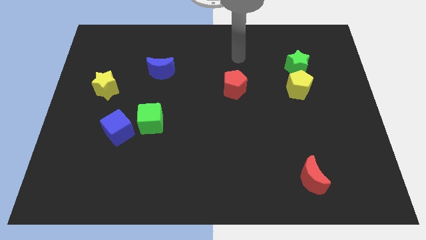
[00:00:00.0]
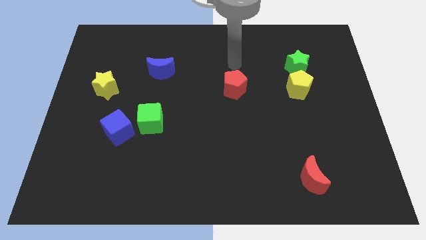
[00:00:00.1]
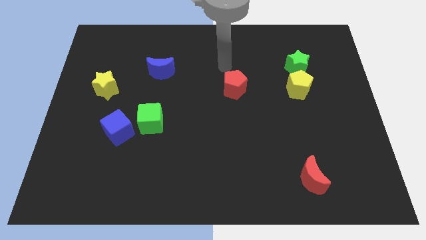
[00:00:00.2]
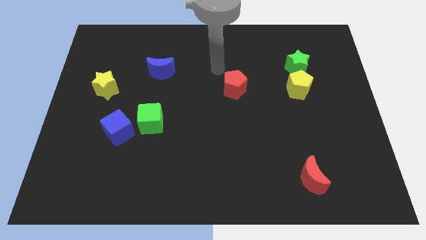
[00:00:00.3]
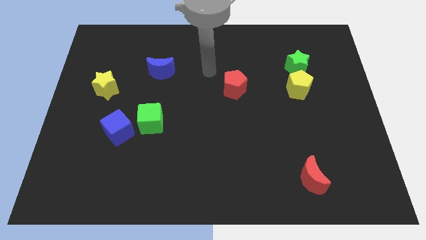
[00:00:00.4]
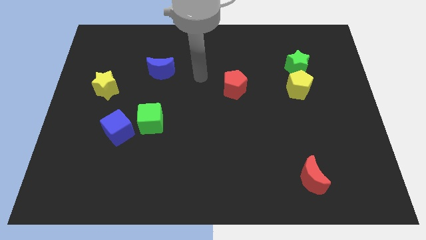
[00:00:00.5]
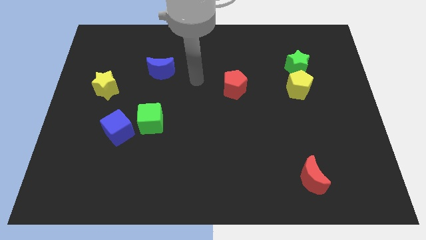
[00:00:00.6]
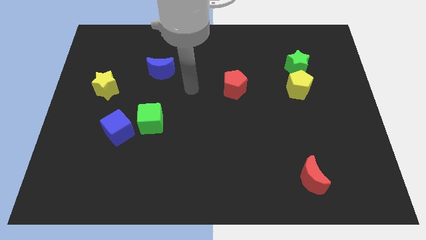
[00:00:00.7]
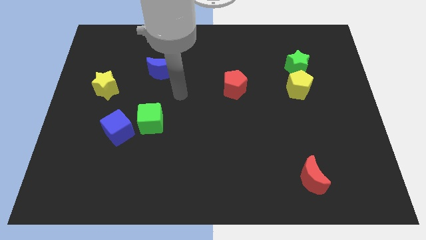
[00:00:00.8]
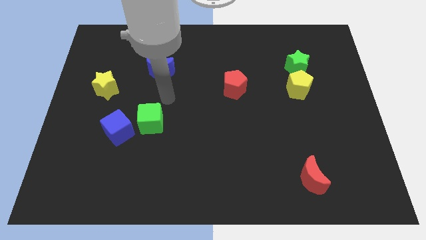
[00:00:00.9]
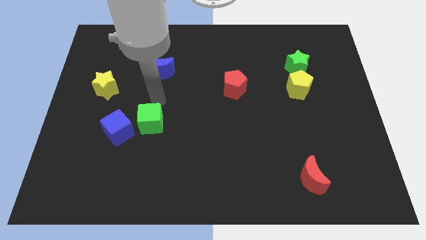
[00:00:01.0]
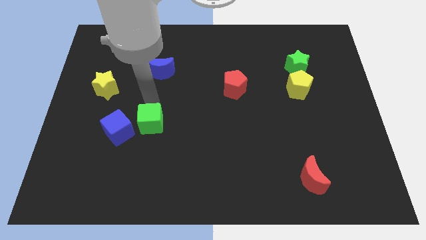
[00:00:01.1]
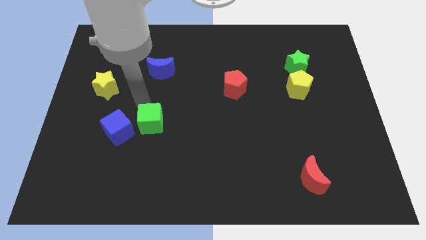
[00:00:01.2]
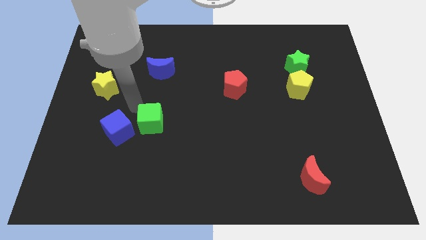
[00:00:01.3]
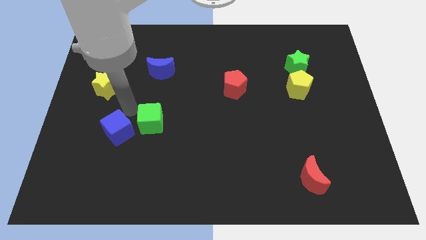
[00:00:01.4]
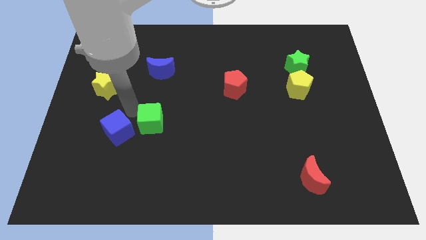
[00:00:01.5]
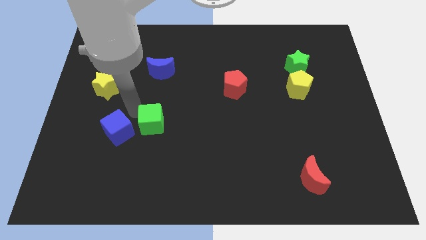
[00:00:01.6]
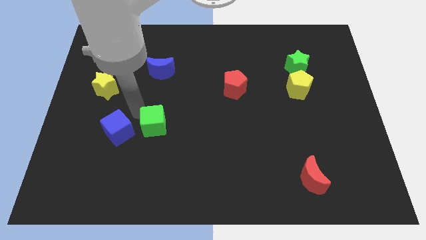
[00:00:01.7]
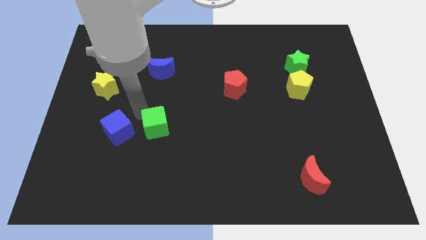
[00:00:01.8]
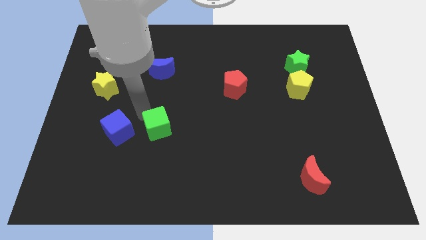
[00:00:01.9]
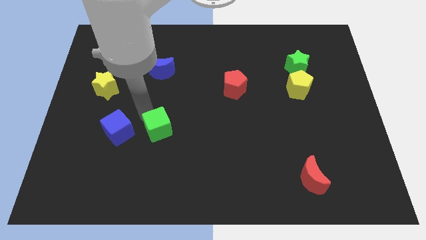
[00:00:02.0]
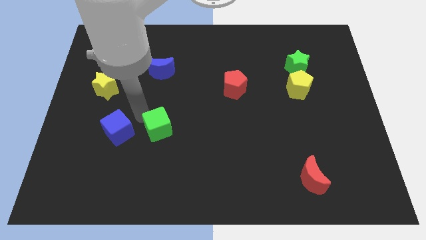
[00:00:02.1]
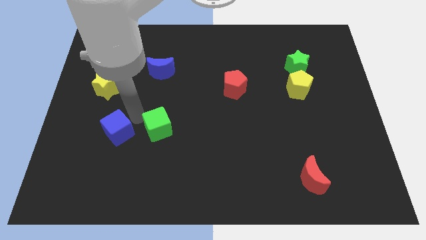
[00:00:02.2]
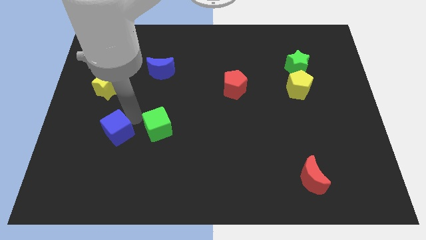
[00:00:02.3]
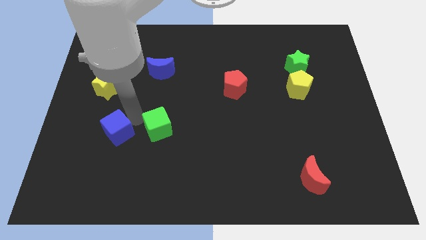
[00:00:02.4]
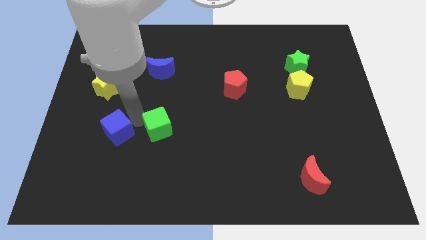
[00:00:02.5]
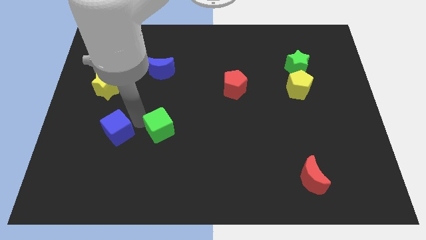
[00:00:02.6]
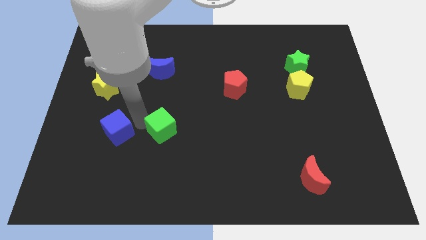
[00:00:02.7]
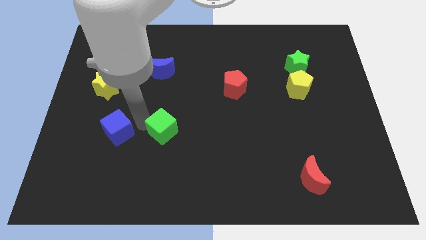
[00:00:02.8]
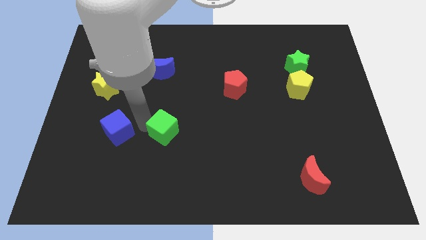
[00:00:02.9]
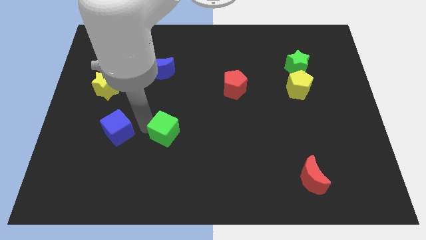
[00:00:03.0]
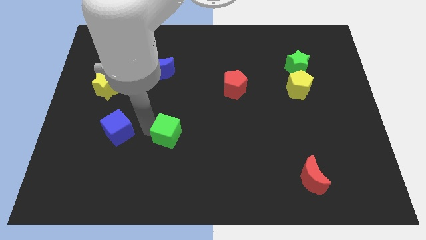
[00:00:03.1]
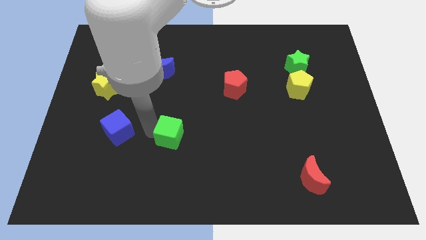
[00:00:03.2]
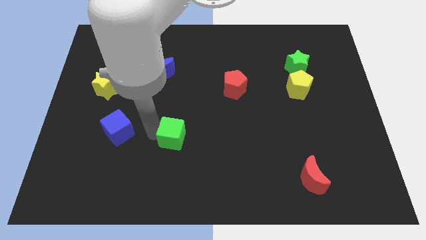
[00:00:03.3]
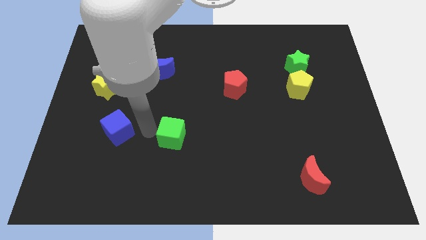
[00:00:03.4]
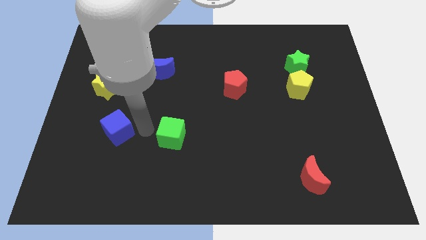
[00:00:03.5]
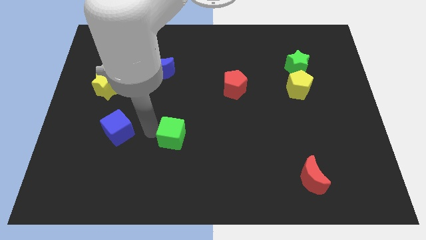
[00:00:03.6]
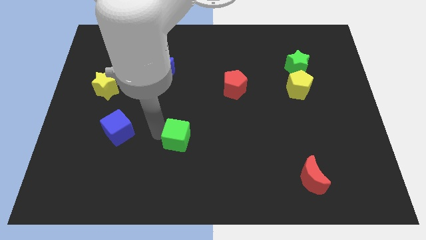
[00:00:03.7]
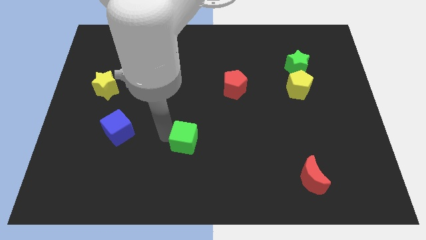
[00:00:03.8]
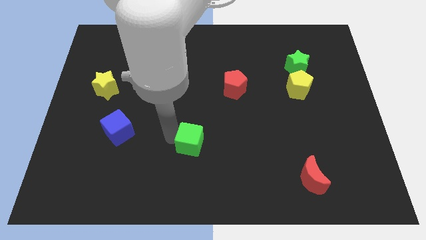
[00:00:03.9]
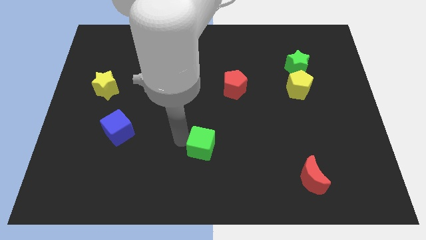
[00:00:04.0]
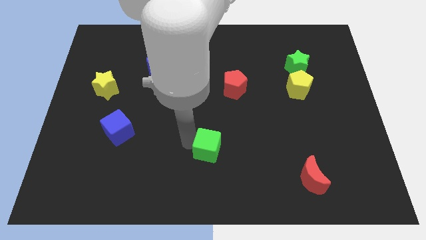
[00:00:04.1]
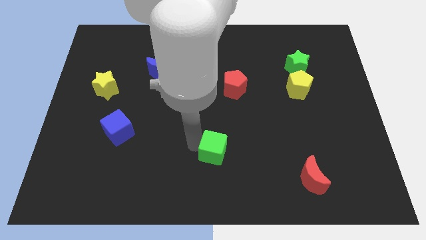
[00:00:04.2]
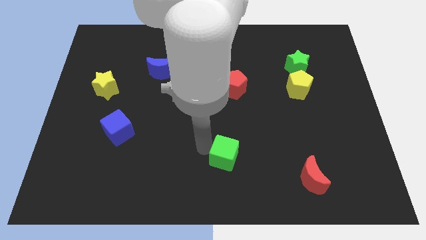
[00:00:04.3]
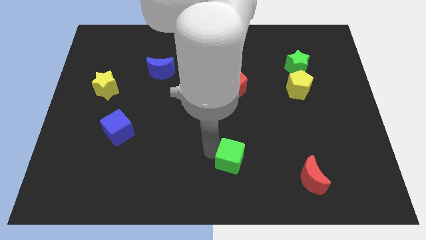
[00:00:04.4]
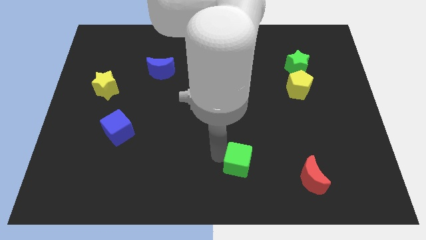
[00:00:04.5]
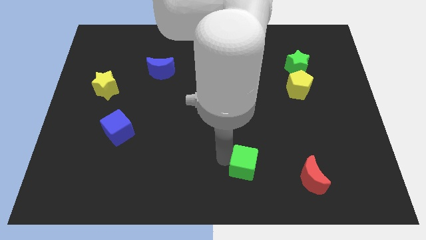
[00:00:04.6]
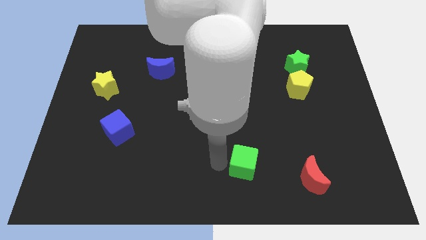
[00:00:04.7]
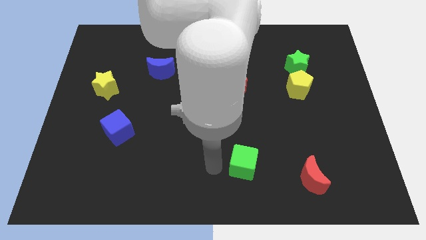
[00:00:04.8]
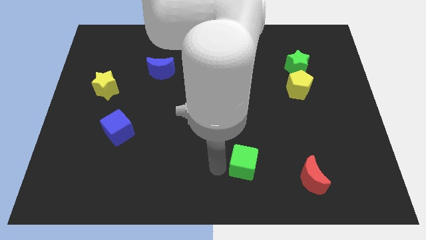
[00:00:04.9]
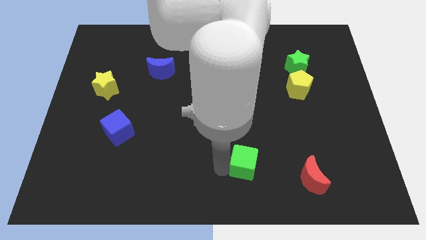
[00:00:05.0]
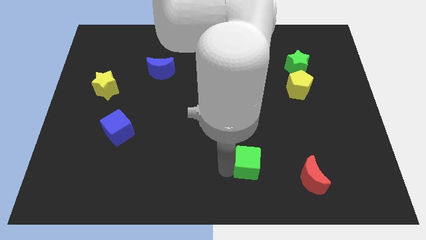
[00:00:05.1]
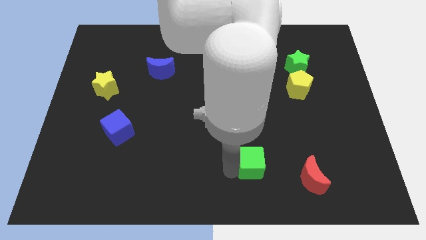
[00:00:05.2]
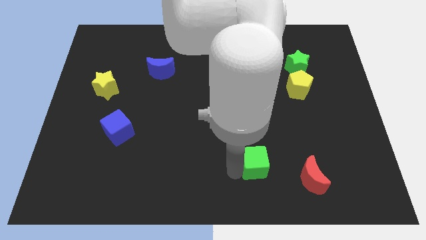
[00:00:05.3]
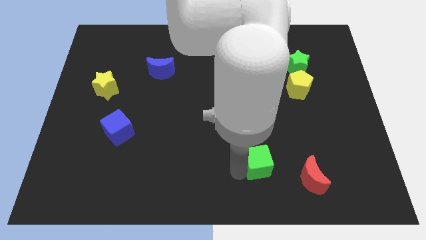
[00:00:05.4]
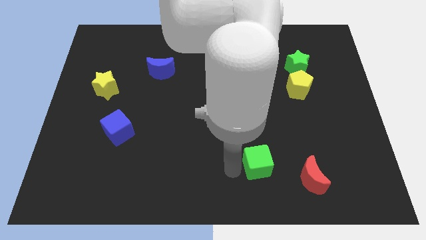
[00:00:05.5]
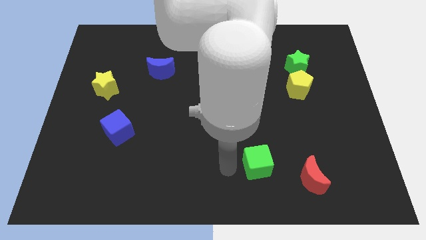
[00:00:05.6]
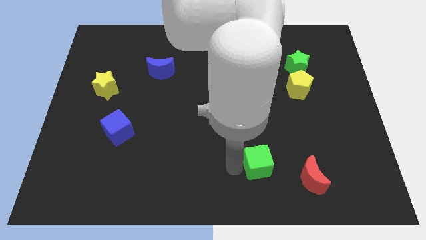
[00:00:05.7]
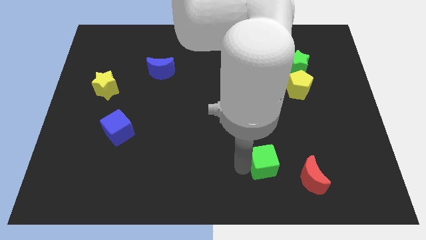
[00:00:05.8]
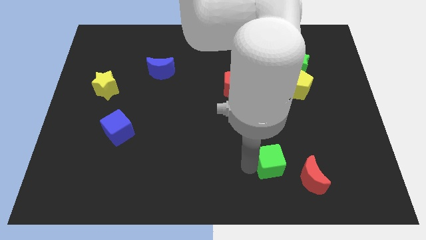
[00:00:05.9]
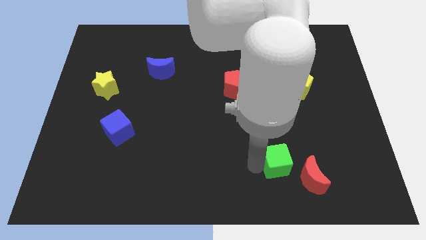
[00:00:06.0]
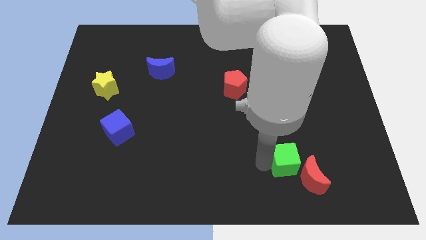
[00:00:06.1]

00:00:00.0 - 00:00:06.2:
push the green cube next to the red moon

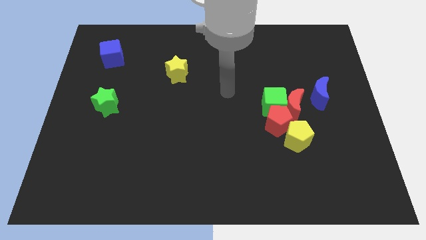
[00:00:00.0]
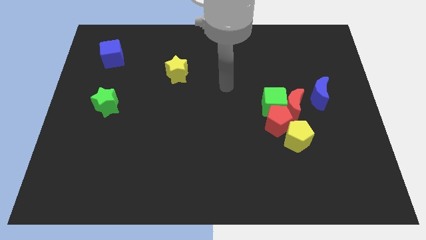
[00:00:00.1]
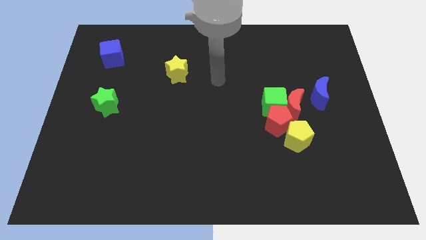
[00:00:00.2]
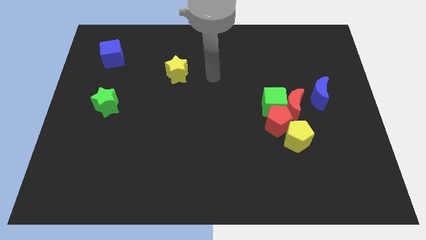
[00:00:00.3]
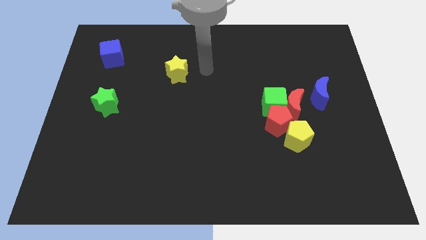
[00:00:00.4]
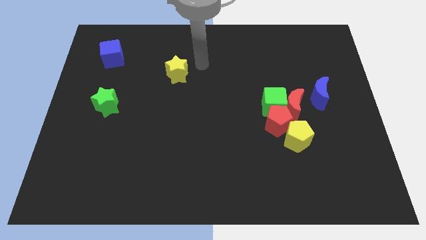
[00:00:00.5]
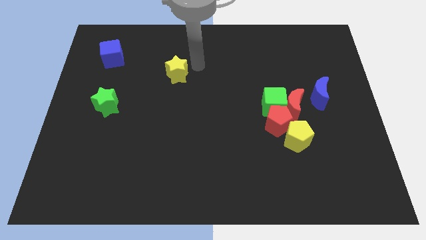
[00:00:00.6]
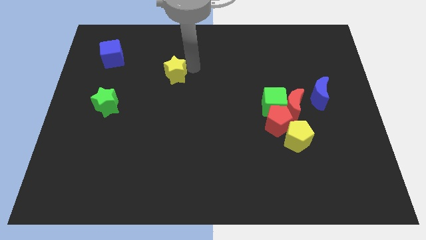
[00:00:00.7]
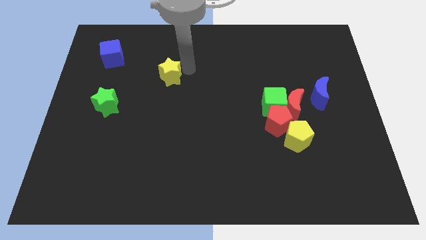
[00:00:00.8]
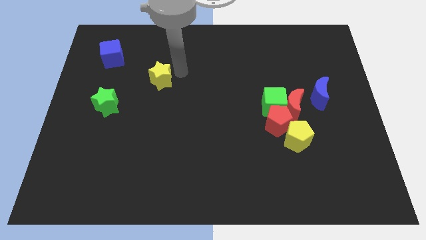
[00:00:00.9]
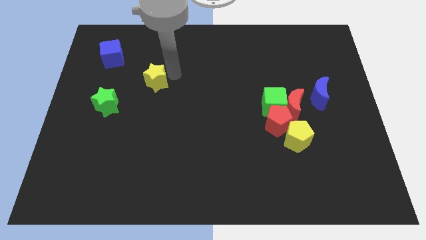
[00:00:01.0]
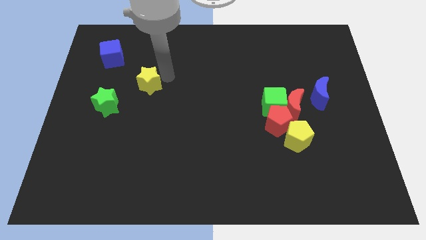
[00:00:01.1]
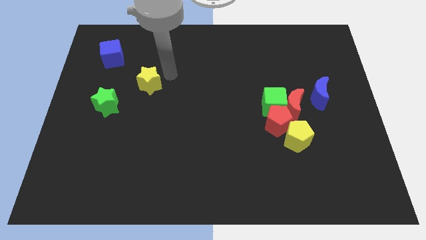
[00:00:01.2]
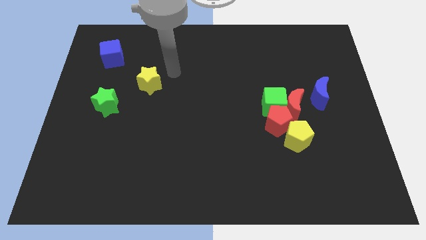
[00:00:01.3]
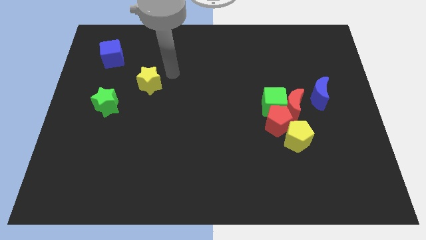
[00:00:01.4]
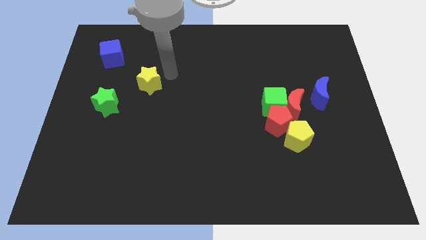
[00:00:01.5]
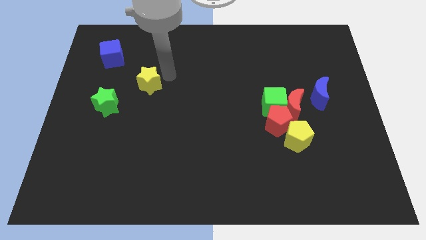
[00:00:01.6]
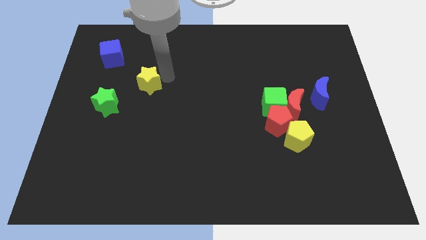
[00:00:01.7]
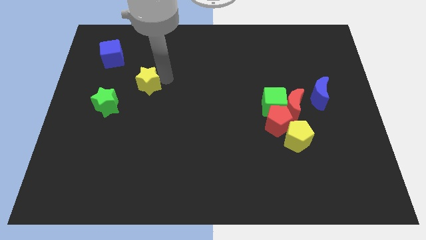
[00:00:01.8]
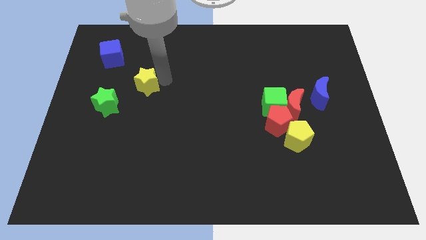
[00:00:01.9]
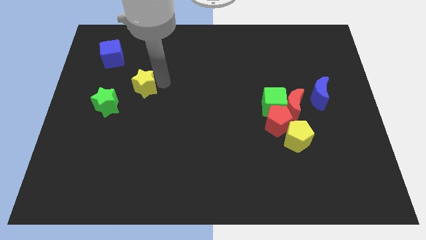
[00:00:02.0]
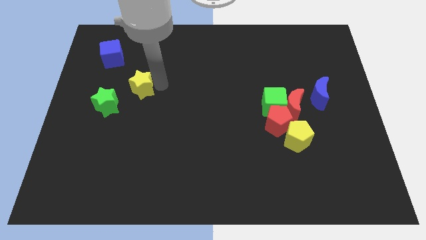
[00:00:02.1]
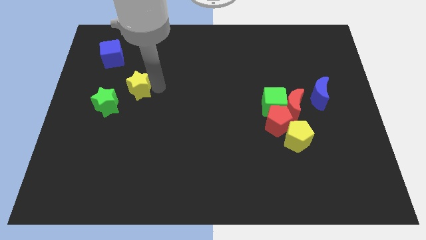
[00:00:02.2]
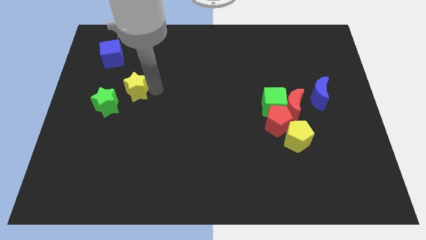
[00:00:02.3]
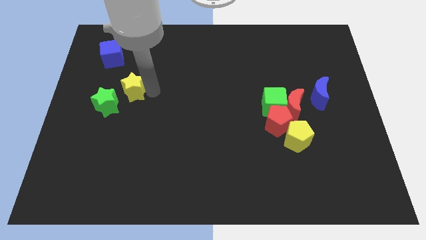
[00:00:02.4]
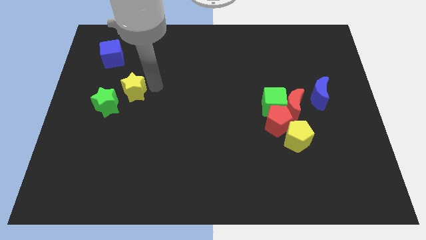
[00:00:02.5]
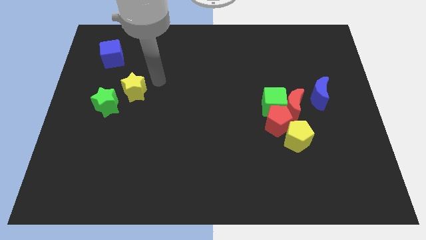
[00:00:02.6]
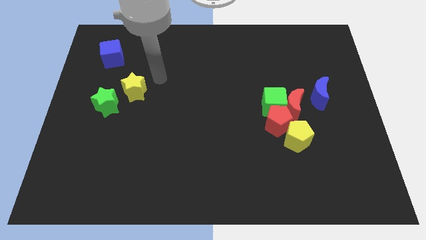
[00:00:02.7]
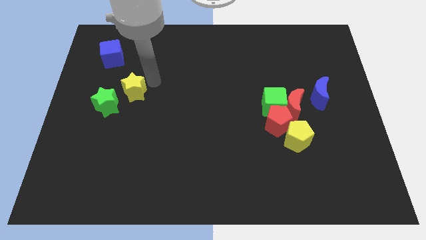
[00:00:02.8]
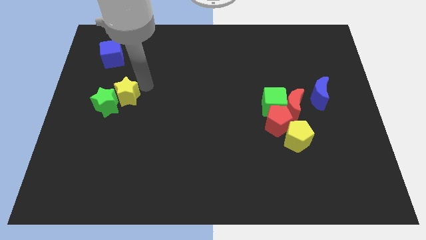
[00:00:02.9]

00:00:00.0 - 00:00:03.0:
move the yellow star to the green star
